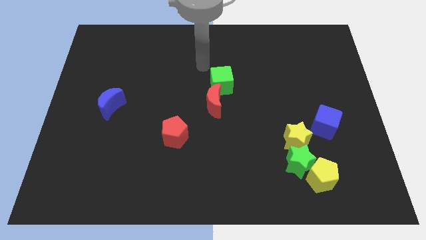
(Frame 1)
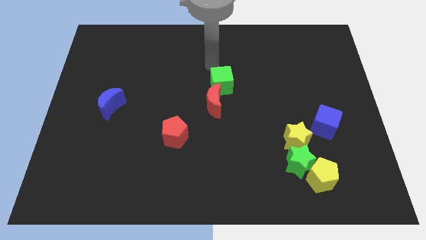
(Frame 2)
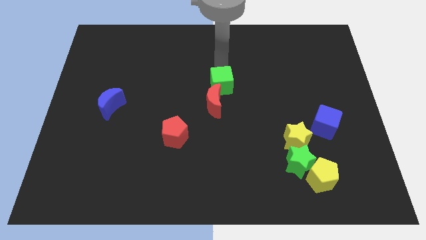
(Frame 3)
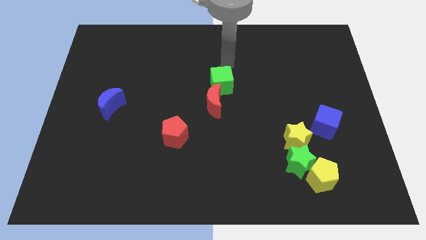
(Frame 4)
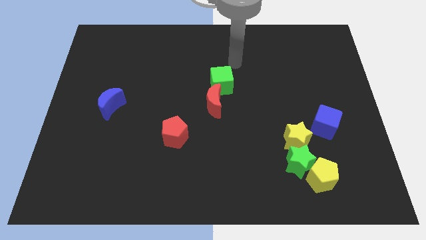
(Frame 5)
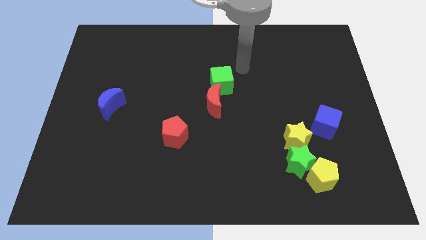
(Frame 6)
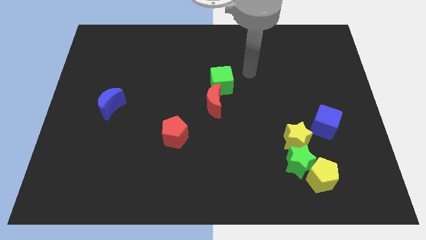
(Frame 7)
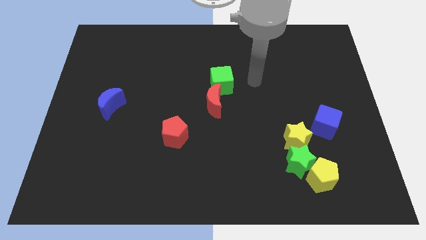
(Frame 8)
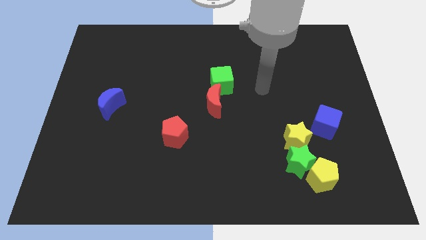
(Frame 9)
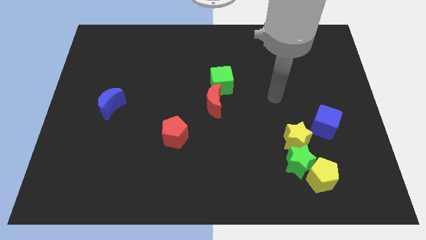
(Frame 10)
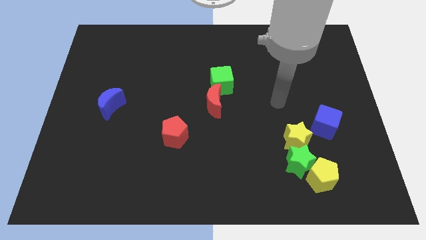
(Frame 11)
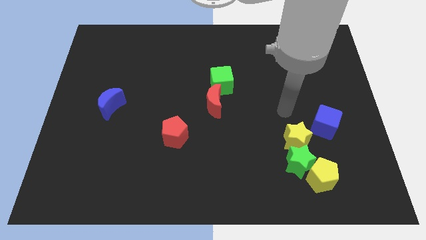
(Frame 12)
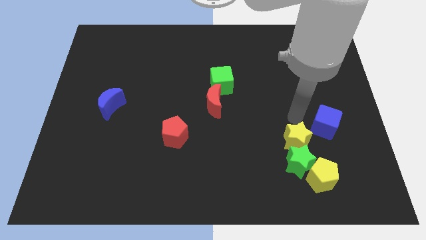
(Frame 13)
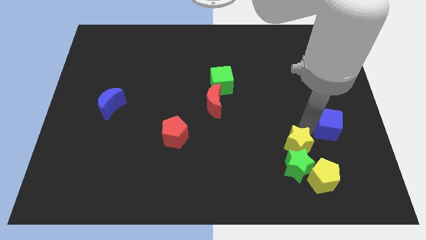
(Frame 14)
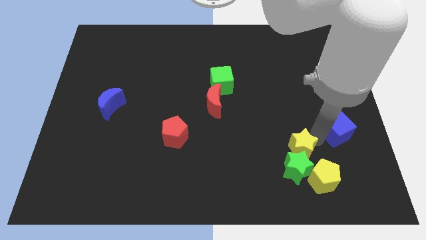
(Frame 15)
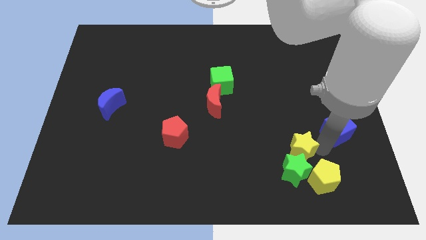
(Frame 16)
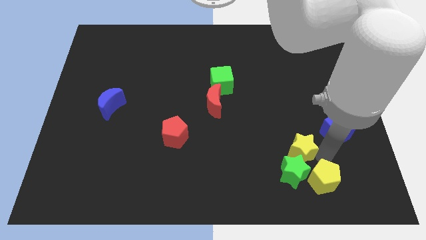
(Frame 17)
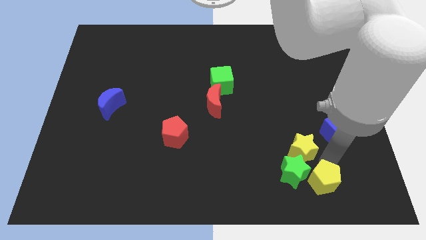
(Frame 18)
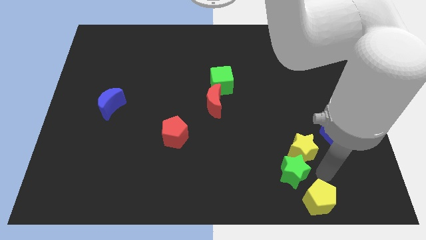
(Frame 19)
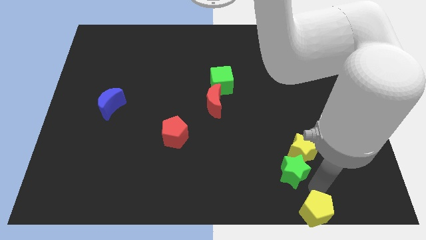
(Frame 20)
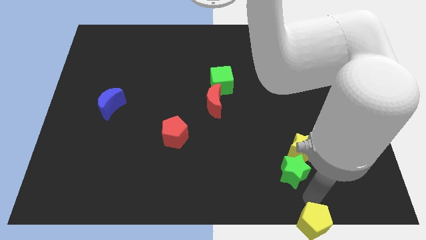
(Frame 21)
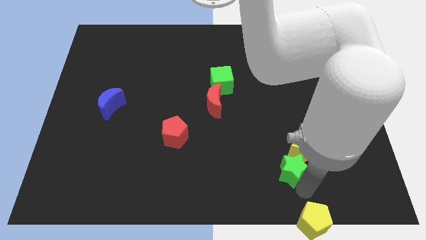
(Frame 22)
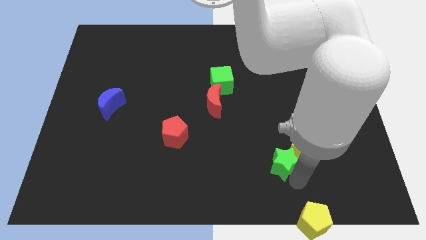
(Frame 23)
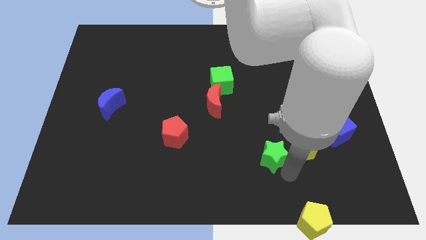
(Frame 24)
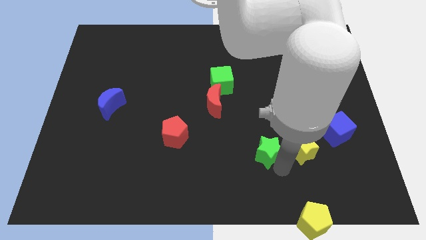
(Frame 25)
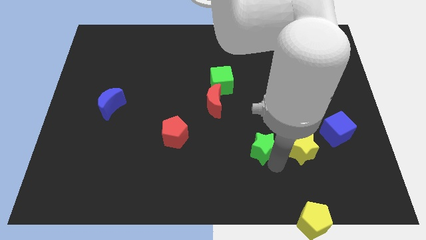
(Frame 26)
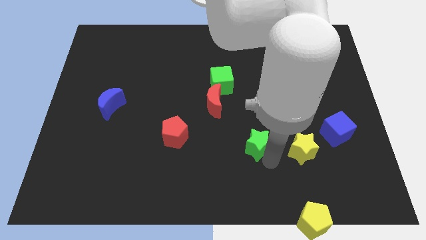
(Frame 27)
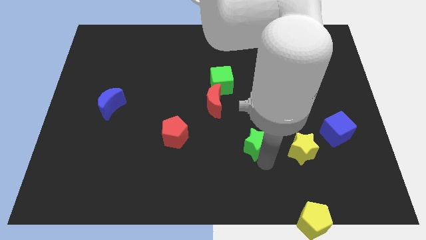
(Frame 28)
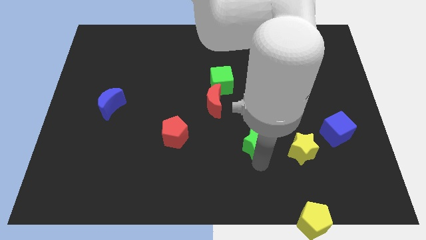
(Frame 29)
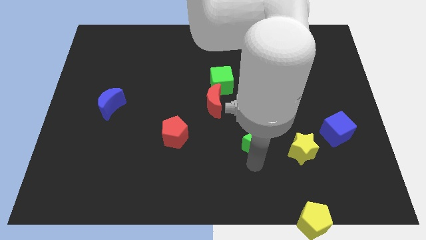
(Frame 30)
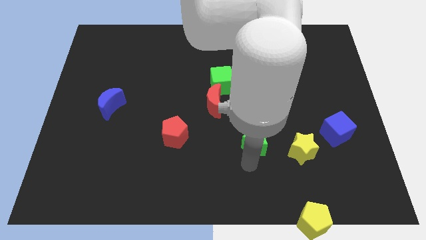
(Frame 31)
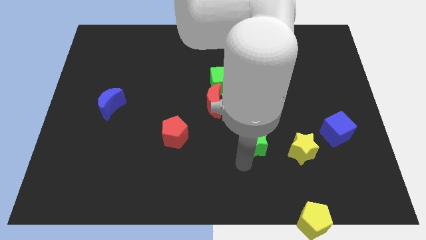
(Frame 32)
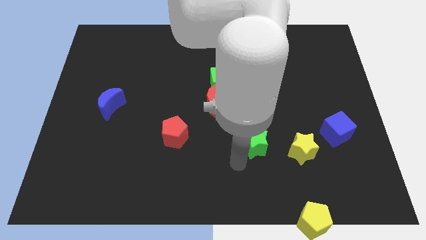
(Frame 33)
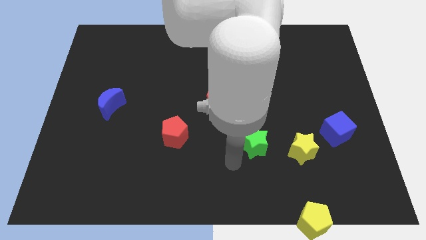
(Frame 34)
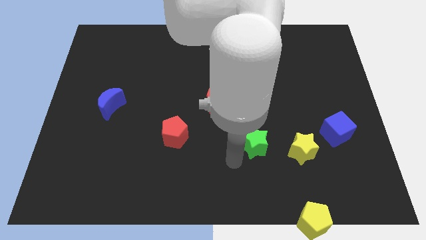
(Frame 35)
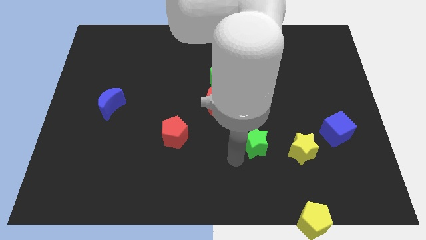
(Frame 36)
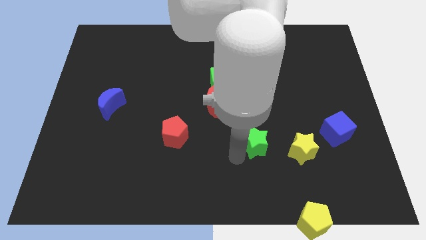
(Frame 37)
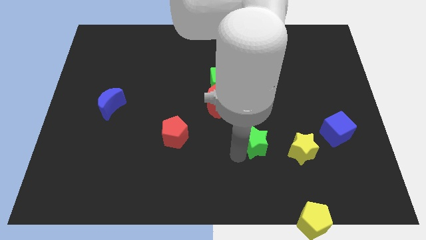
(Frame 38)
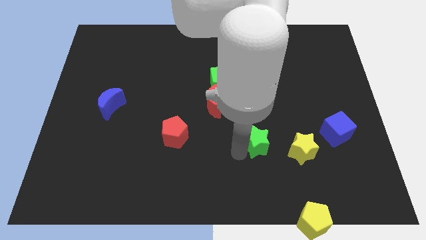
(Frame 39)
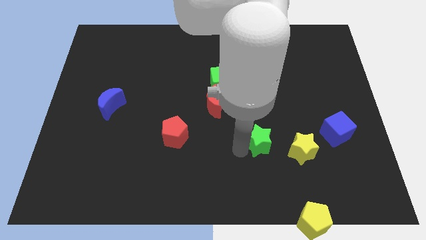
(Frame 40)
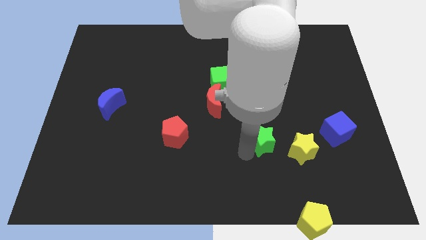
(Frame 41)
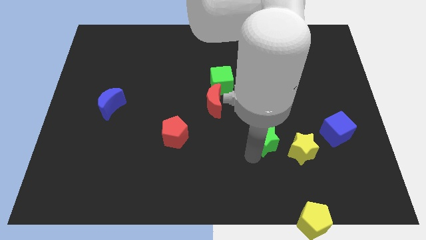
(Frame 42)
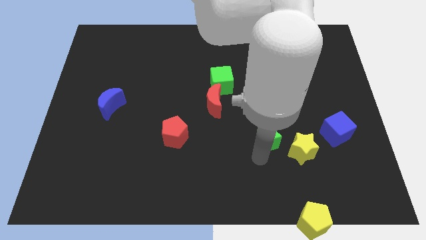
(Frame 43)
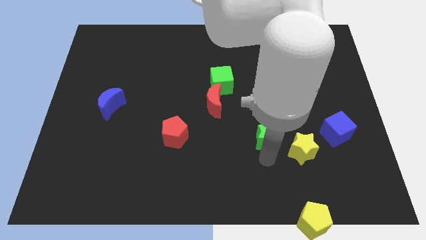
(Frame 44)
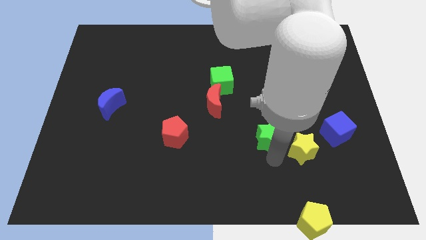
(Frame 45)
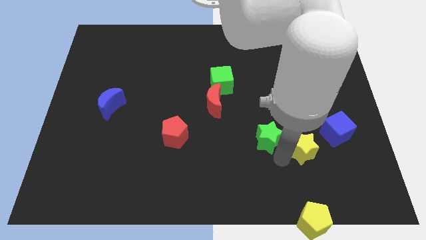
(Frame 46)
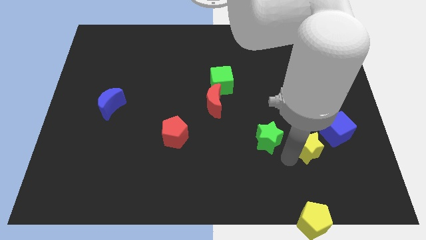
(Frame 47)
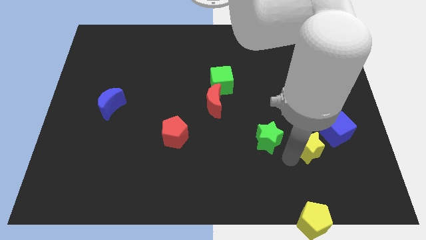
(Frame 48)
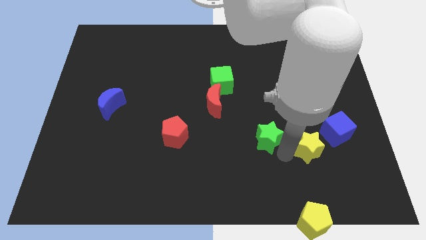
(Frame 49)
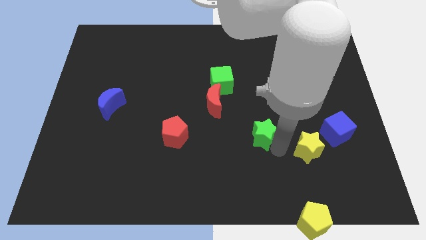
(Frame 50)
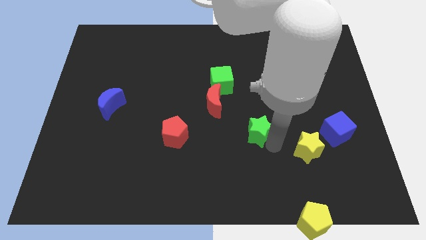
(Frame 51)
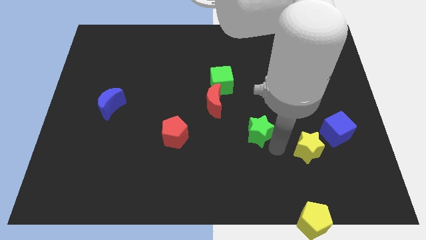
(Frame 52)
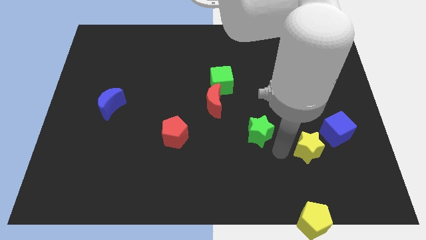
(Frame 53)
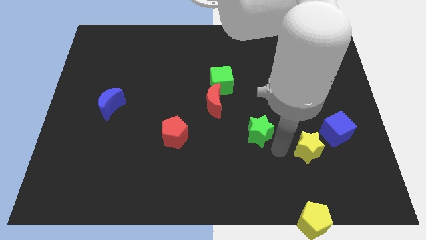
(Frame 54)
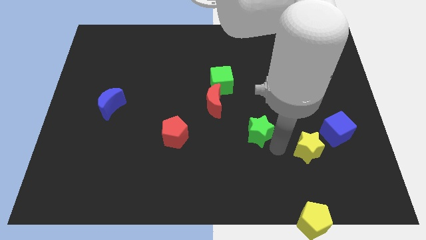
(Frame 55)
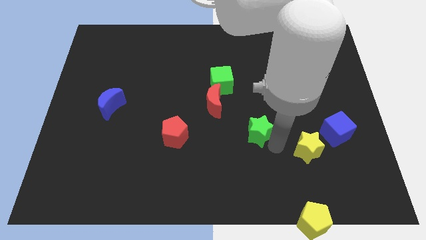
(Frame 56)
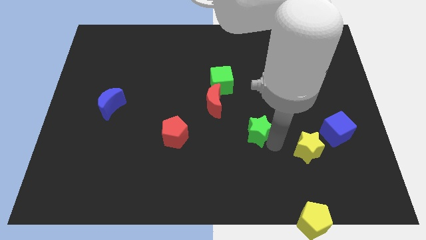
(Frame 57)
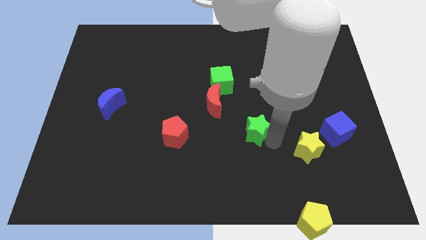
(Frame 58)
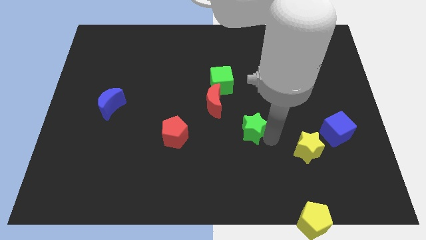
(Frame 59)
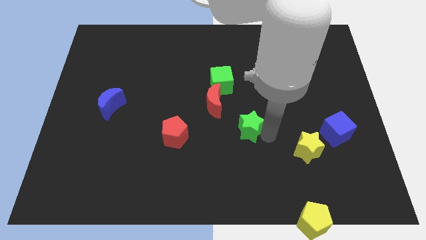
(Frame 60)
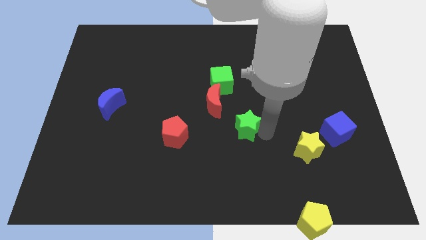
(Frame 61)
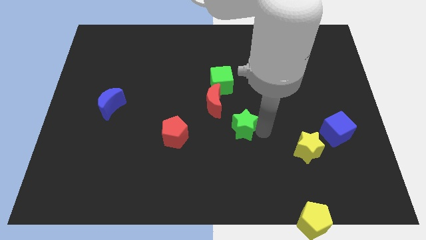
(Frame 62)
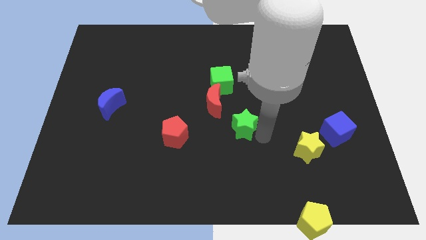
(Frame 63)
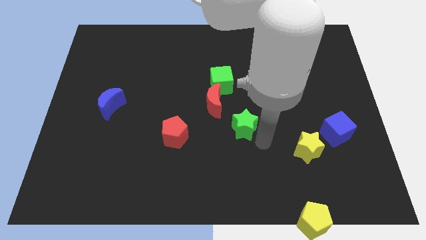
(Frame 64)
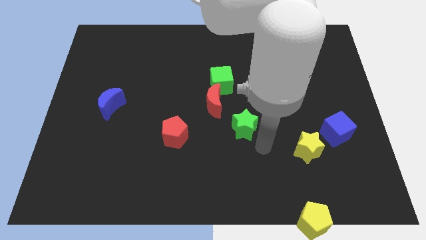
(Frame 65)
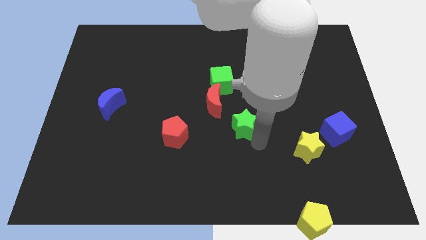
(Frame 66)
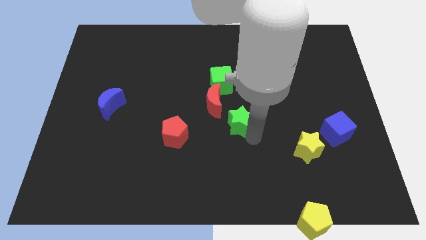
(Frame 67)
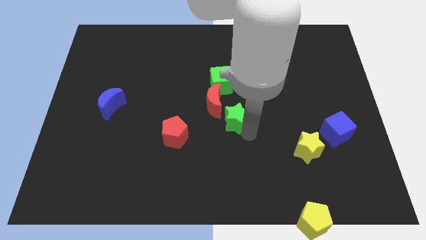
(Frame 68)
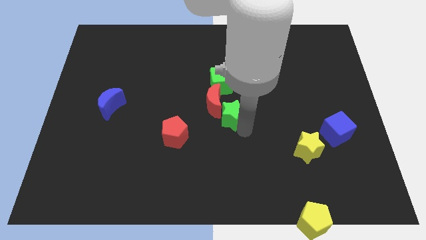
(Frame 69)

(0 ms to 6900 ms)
push the green star towards the red moon

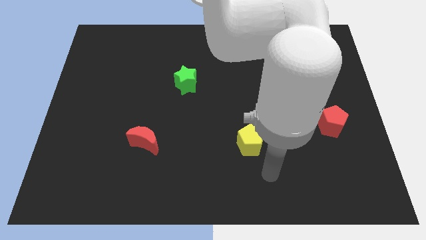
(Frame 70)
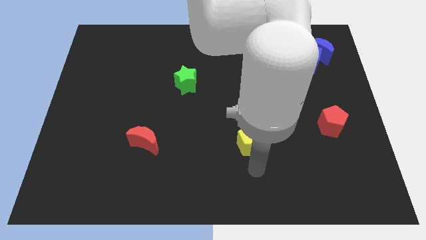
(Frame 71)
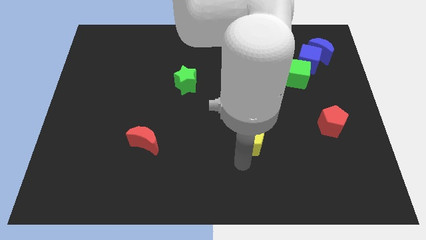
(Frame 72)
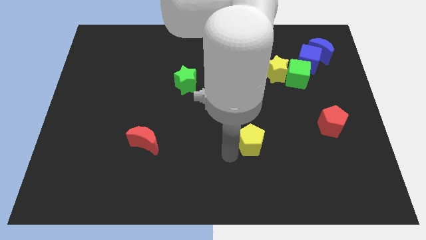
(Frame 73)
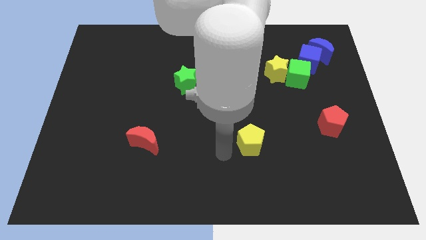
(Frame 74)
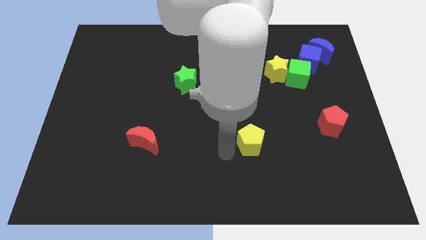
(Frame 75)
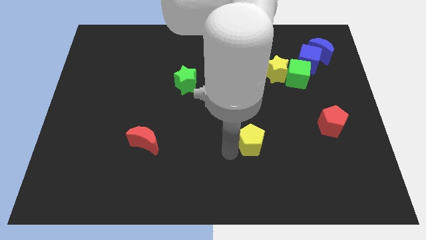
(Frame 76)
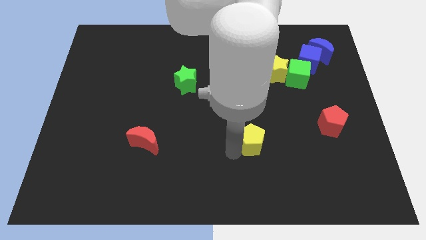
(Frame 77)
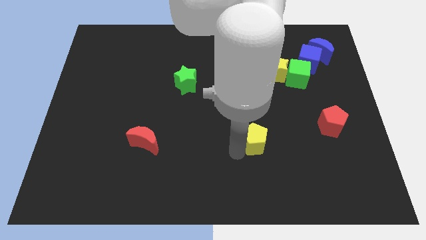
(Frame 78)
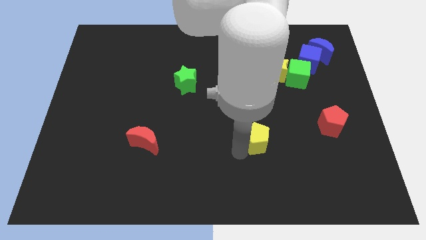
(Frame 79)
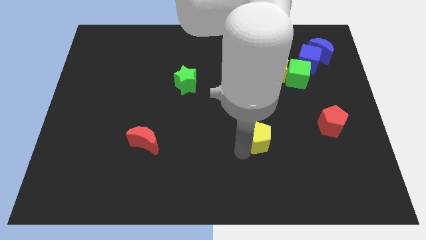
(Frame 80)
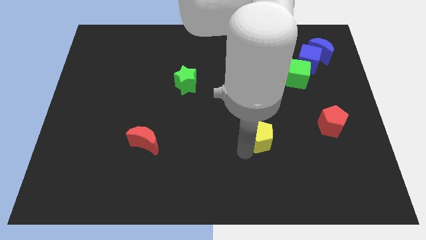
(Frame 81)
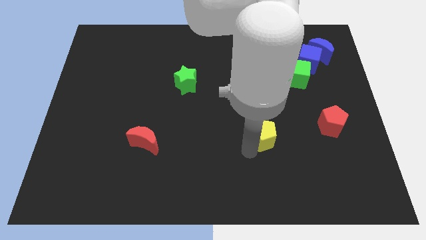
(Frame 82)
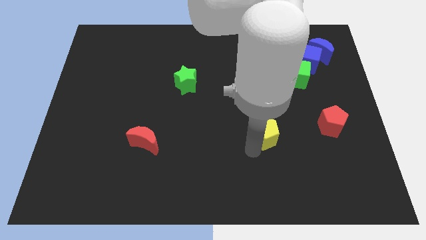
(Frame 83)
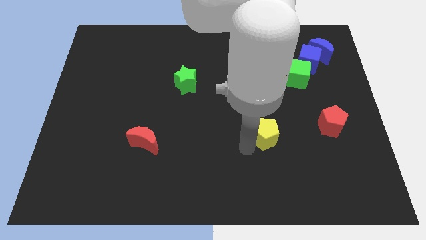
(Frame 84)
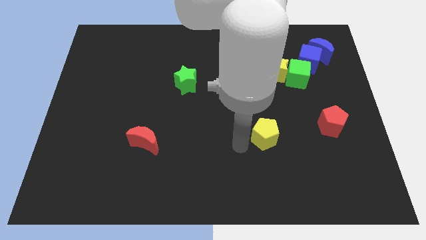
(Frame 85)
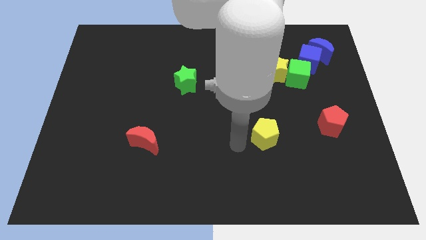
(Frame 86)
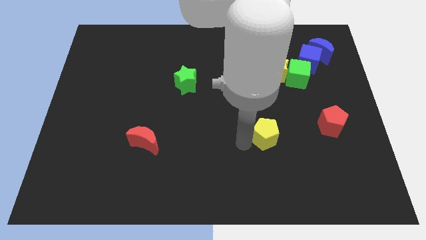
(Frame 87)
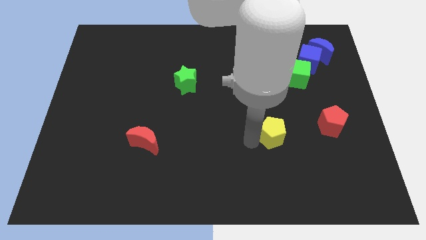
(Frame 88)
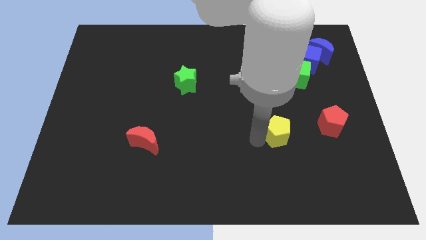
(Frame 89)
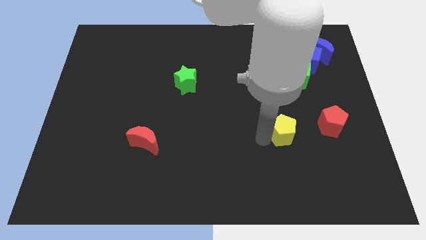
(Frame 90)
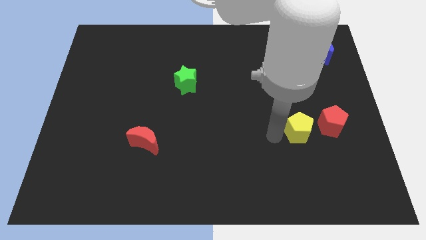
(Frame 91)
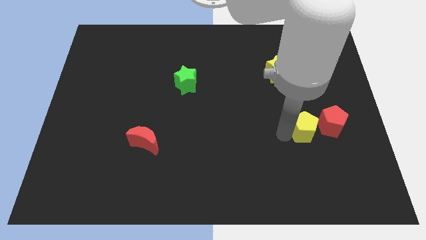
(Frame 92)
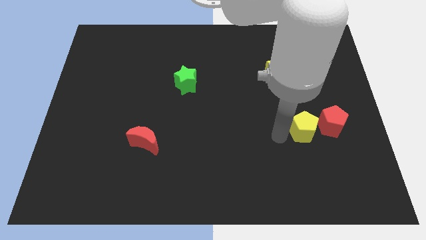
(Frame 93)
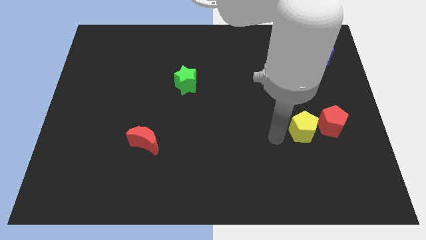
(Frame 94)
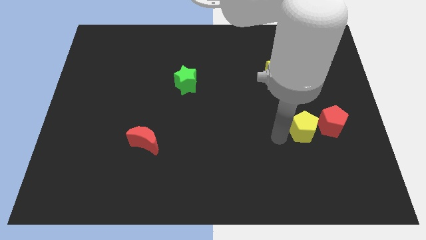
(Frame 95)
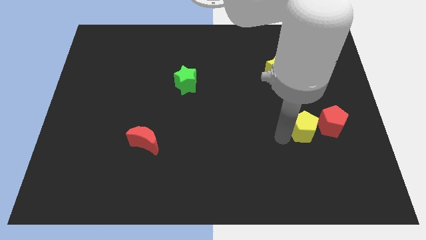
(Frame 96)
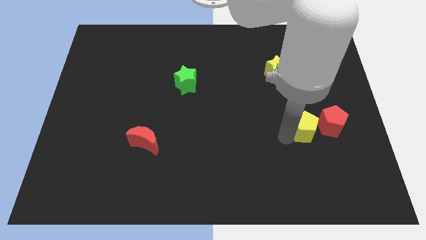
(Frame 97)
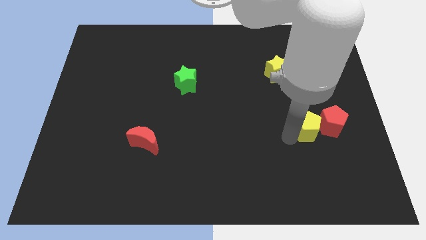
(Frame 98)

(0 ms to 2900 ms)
push the yellow pentagon next to the red pentagon
